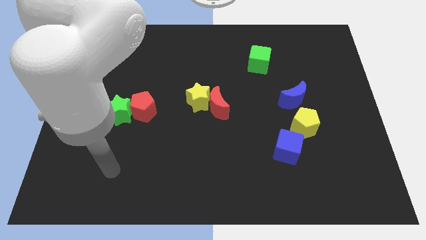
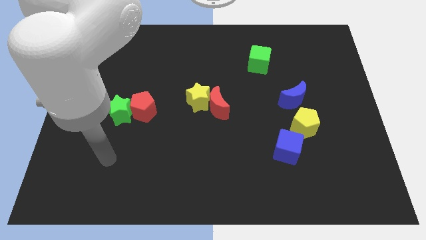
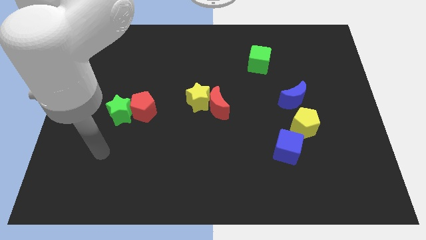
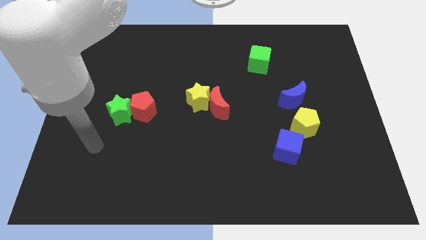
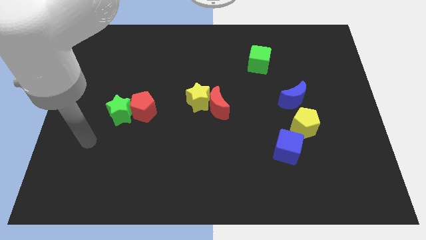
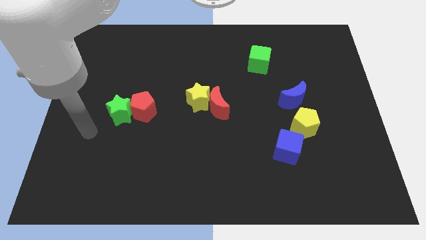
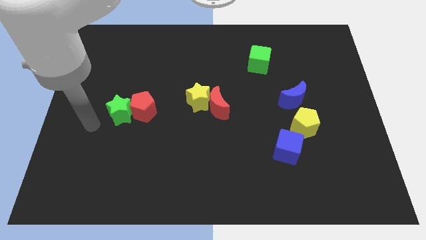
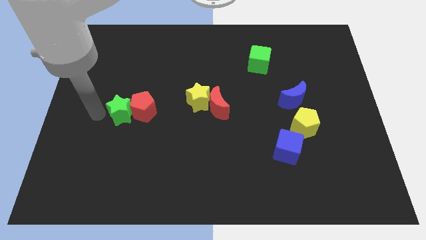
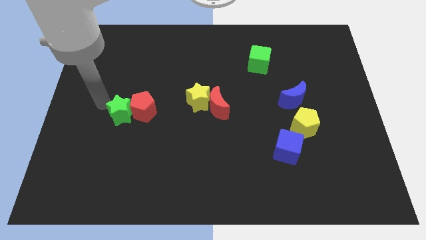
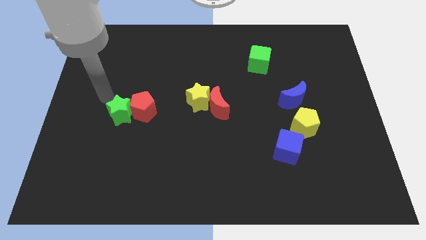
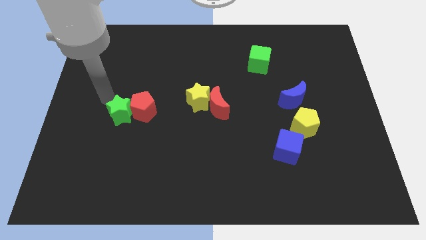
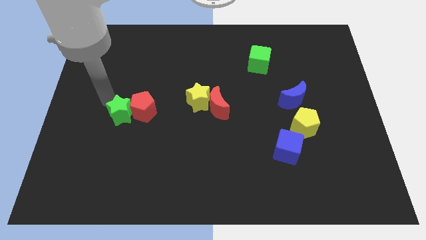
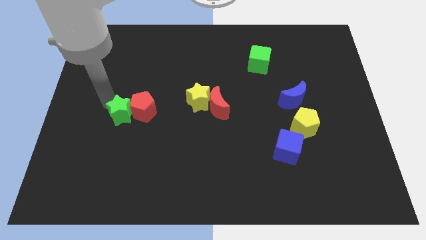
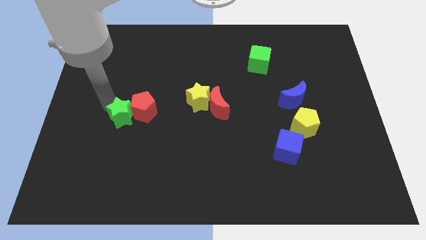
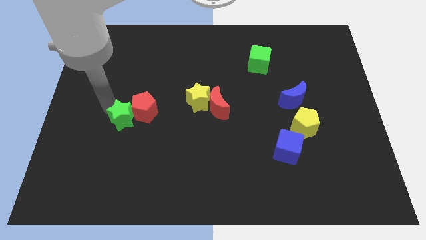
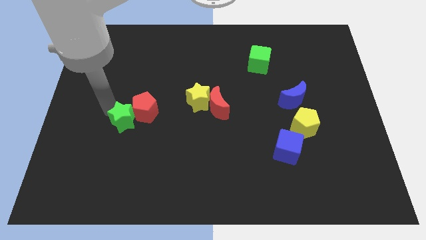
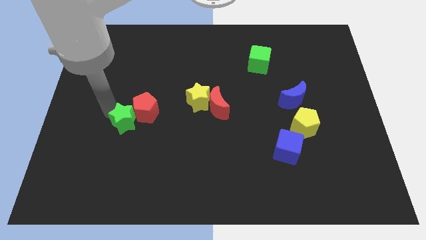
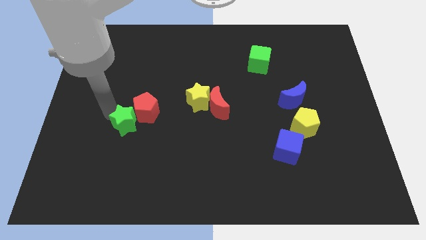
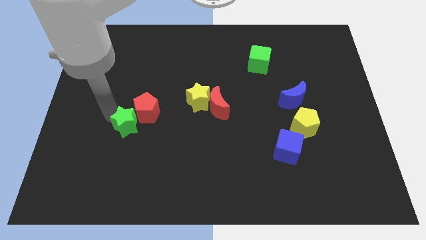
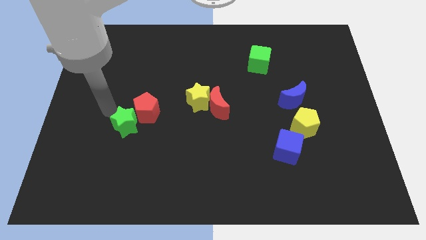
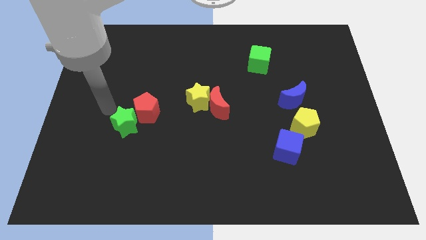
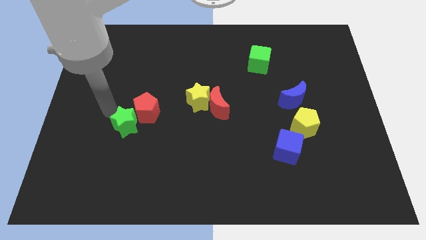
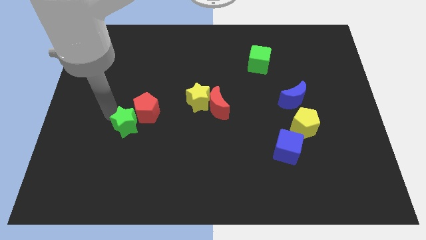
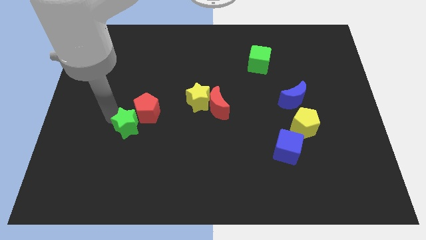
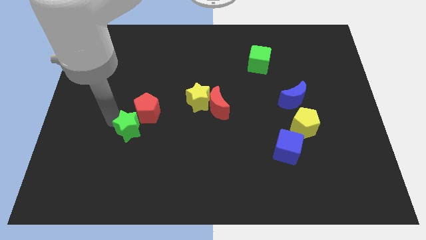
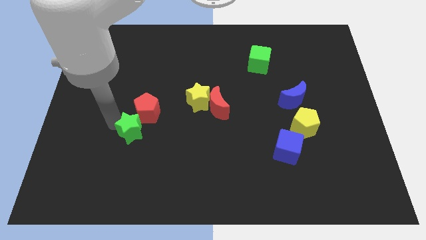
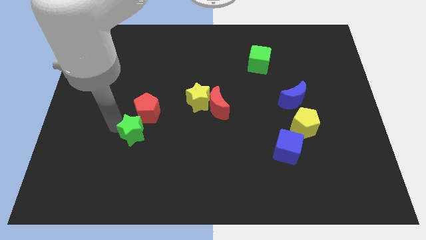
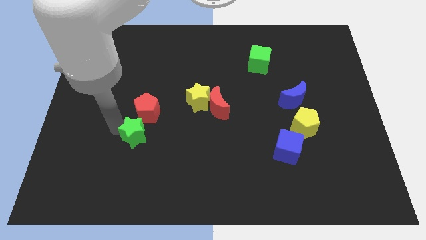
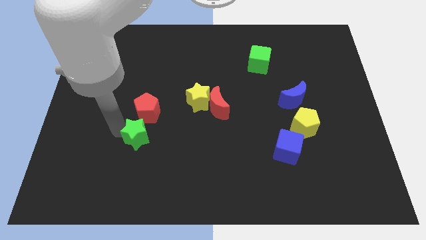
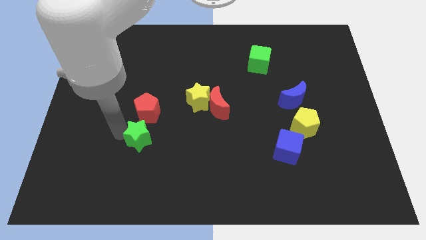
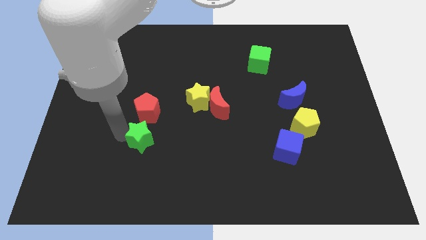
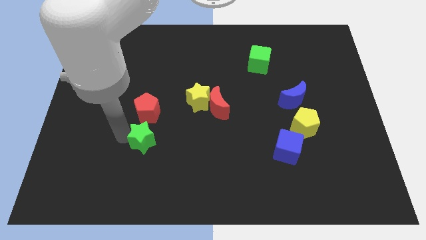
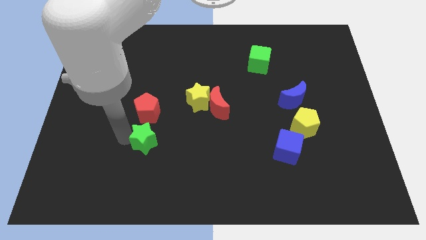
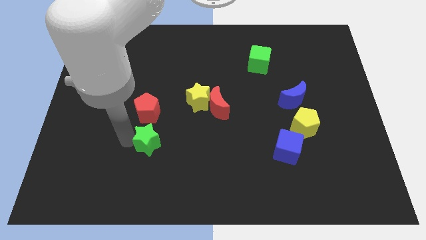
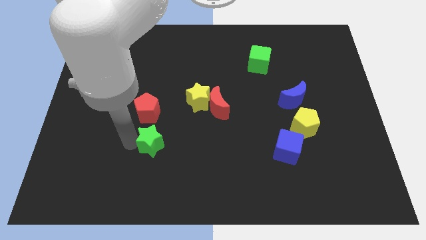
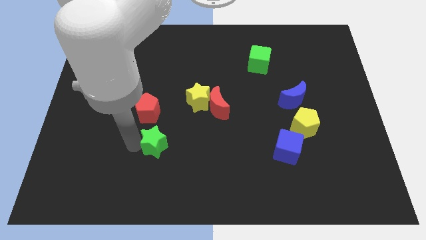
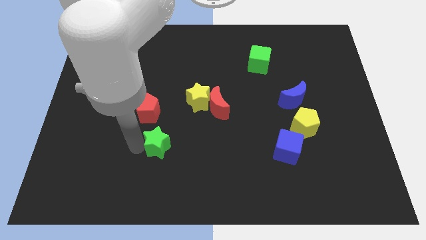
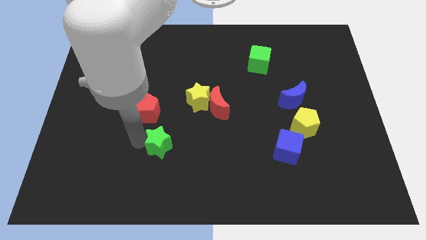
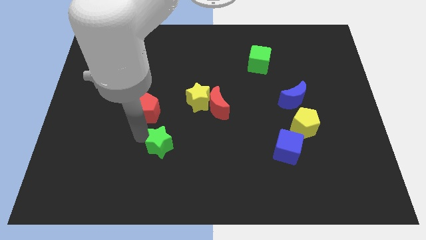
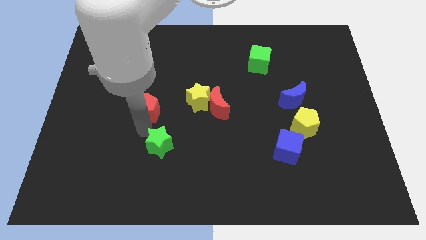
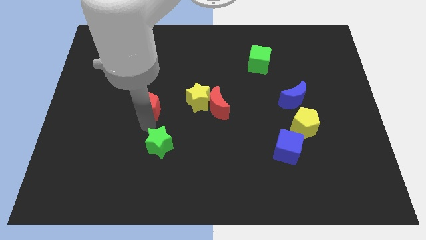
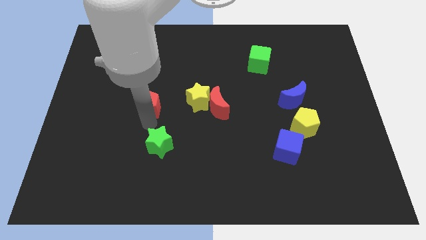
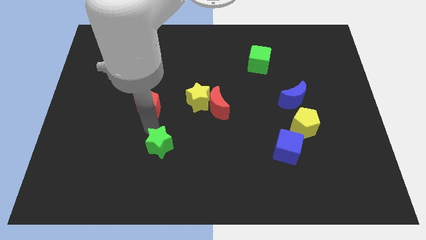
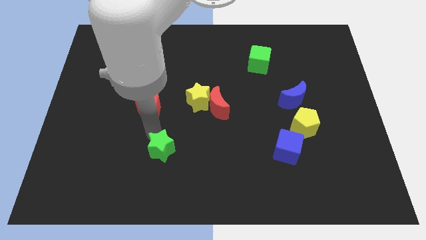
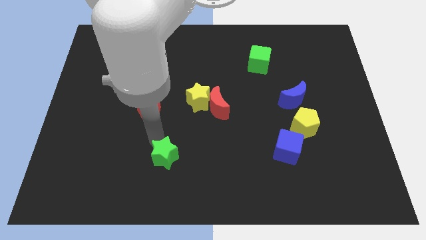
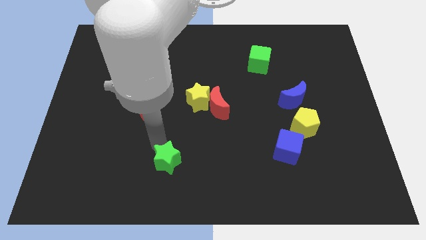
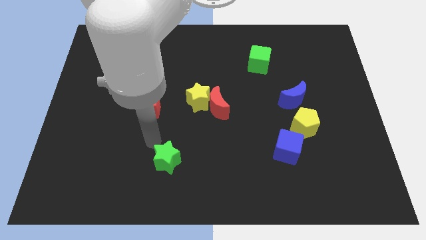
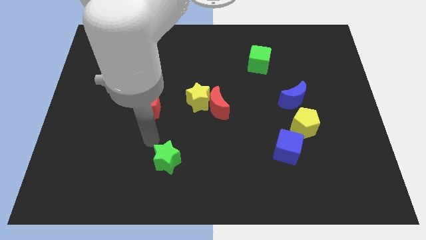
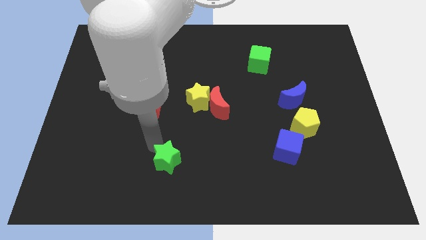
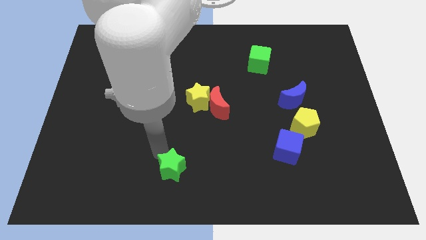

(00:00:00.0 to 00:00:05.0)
move the green star to the bottom side
